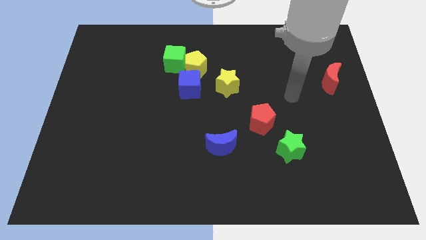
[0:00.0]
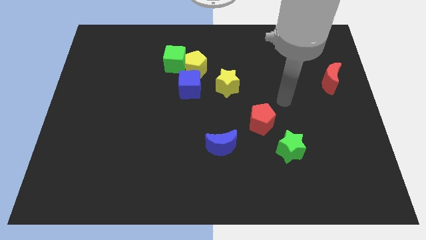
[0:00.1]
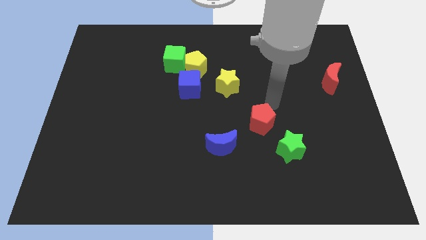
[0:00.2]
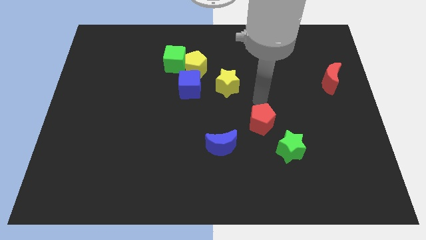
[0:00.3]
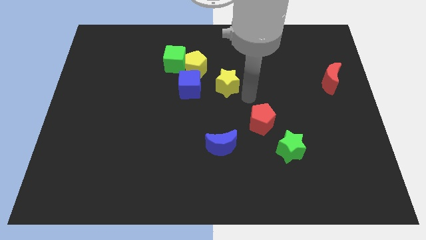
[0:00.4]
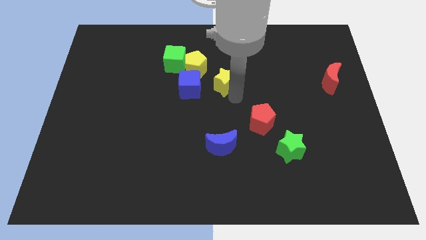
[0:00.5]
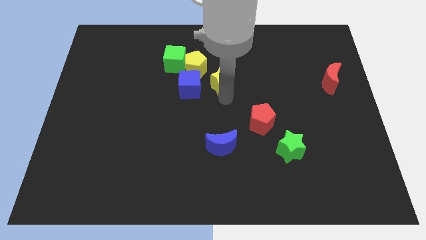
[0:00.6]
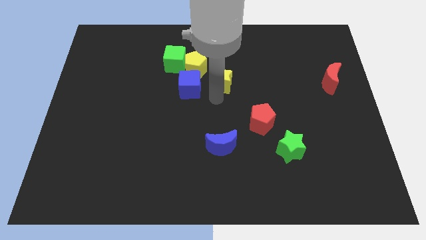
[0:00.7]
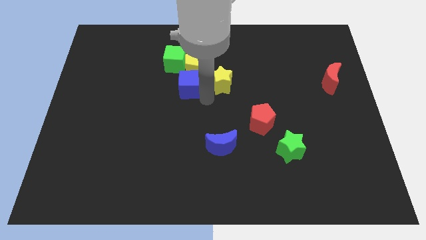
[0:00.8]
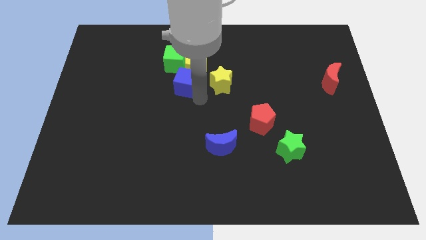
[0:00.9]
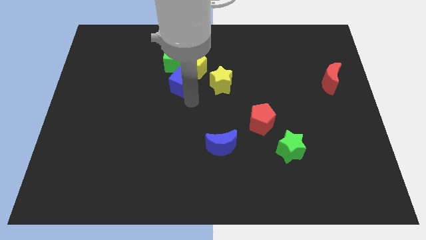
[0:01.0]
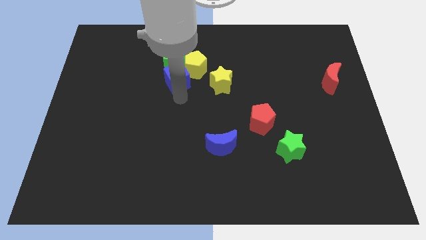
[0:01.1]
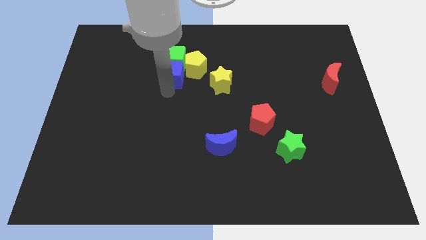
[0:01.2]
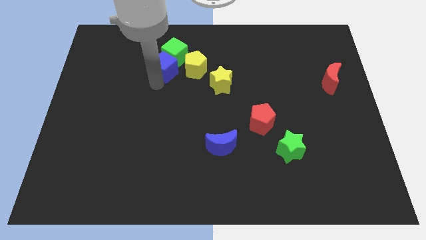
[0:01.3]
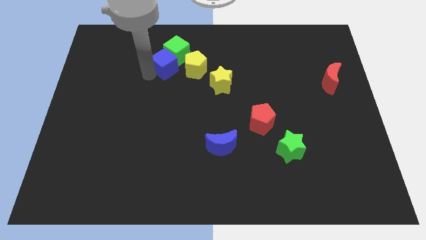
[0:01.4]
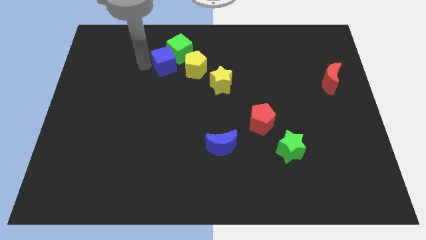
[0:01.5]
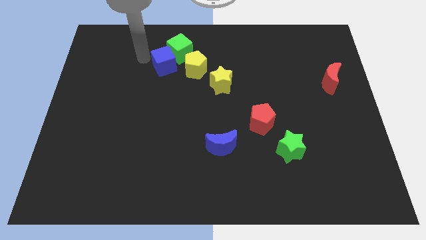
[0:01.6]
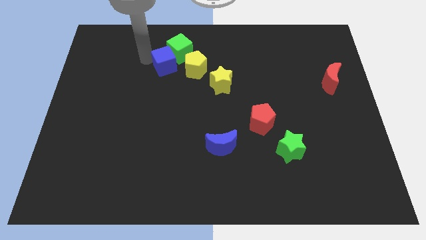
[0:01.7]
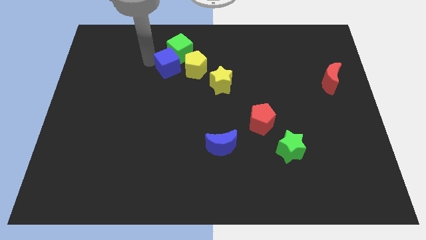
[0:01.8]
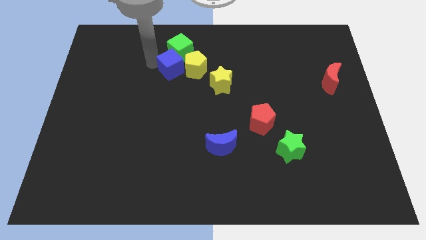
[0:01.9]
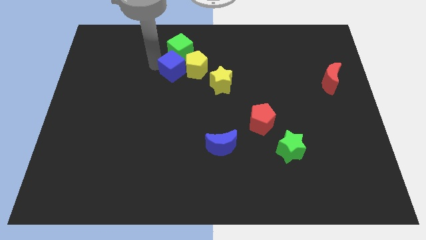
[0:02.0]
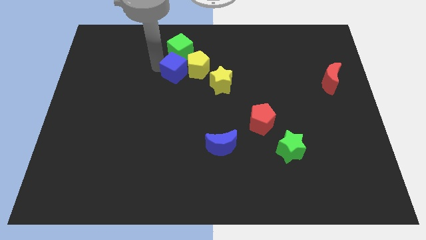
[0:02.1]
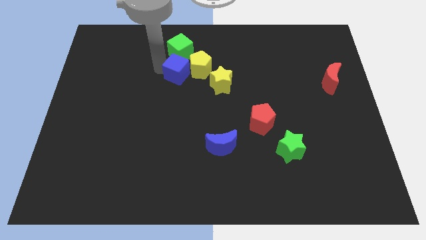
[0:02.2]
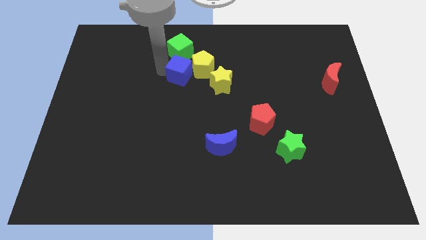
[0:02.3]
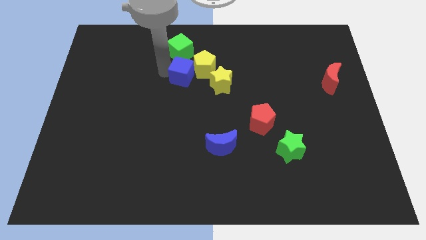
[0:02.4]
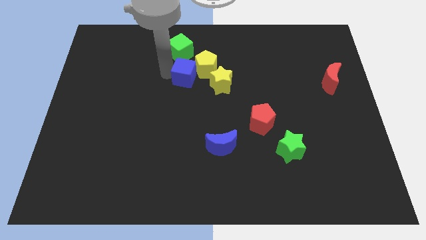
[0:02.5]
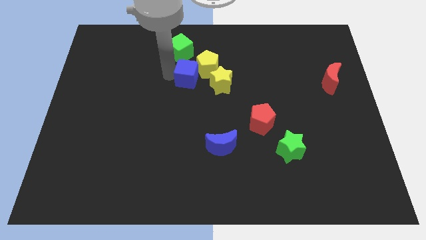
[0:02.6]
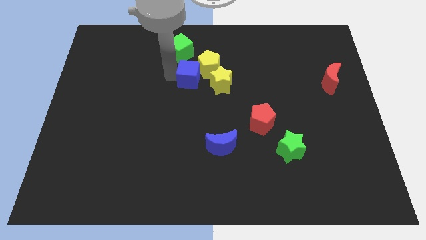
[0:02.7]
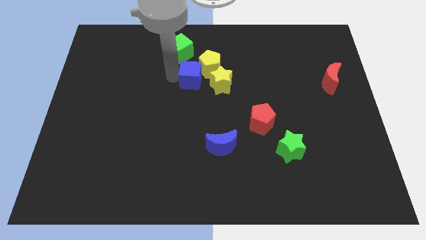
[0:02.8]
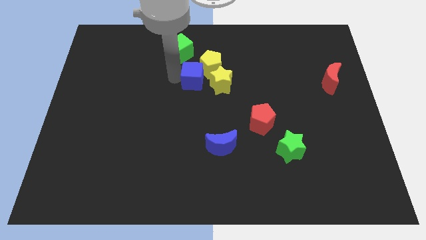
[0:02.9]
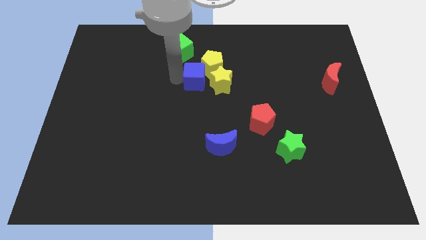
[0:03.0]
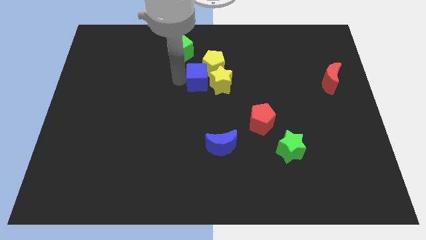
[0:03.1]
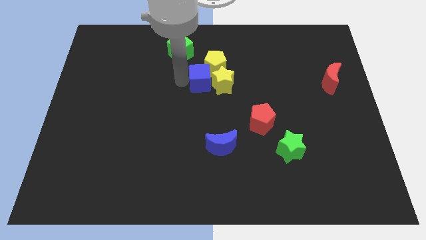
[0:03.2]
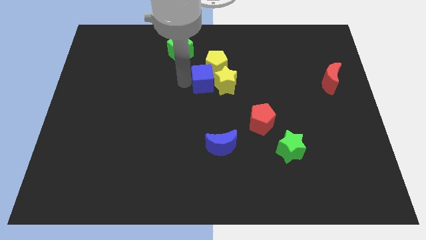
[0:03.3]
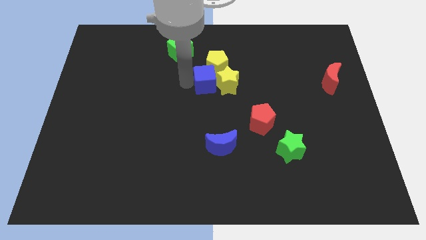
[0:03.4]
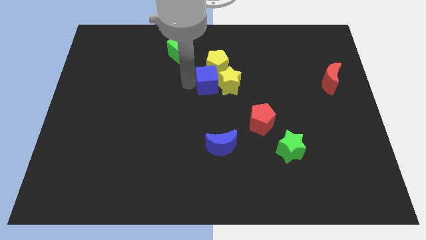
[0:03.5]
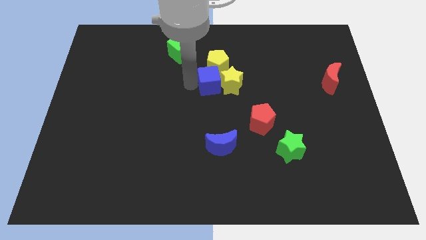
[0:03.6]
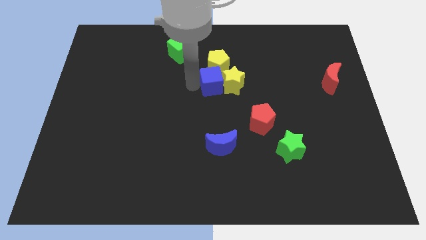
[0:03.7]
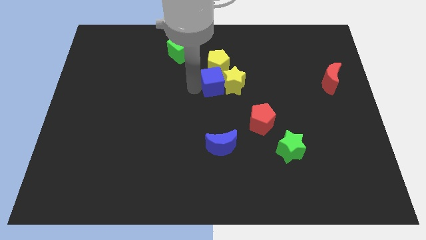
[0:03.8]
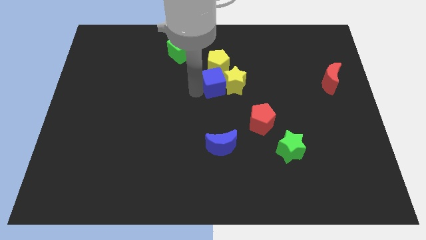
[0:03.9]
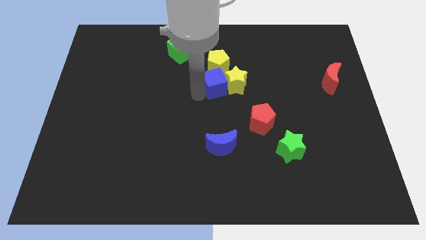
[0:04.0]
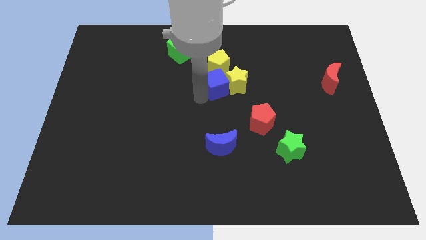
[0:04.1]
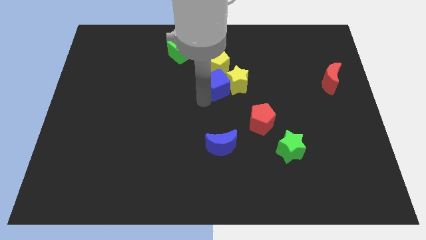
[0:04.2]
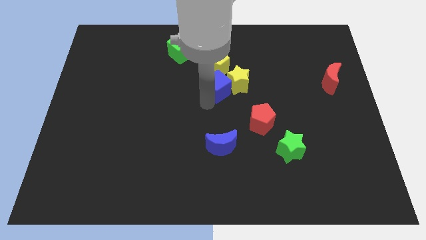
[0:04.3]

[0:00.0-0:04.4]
slightly push the blue cube to the right

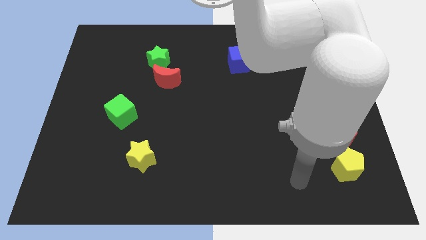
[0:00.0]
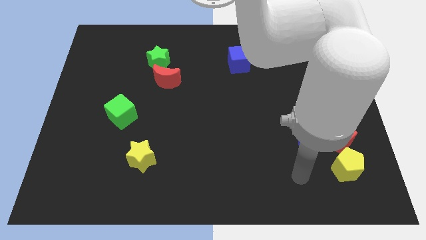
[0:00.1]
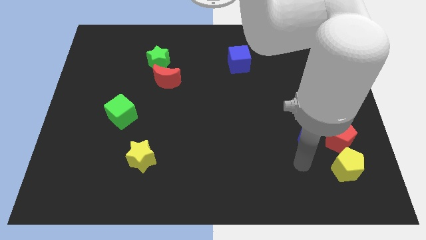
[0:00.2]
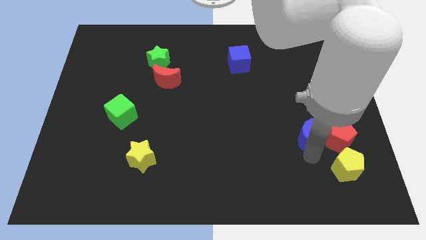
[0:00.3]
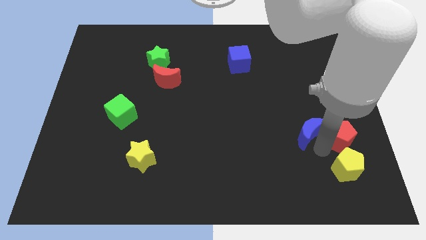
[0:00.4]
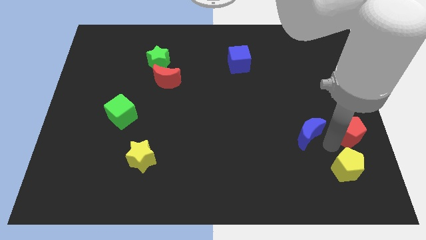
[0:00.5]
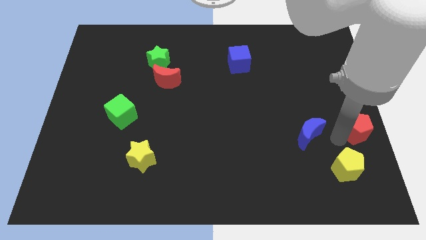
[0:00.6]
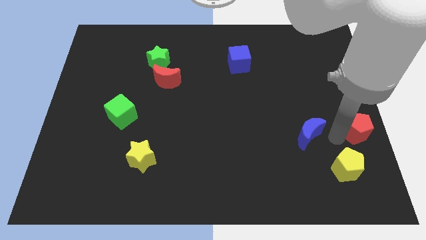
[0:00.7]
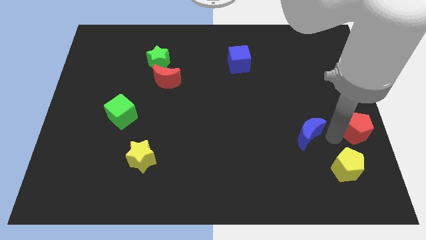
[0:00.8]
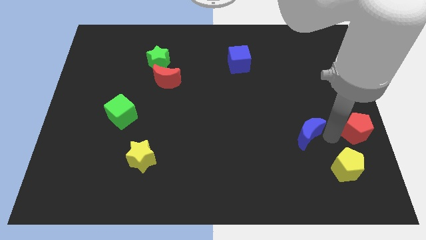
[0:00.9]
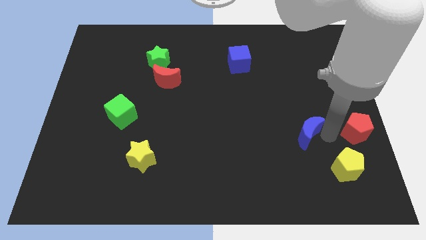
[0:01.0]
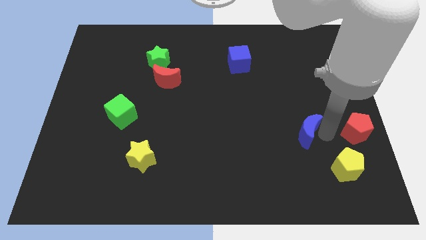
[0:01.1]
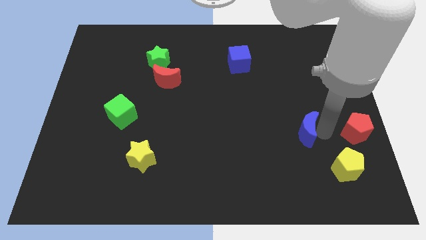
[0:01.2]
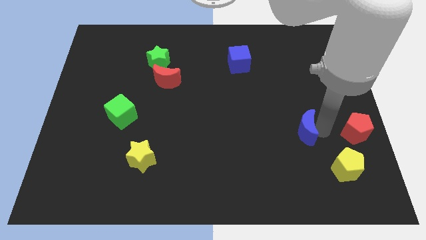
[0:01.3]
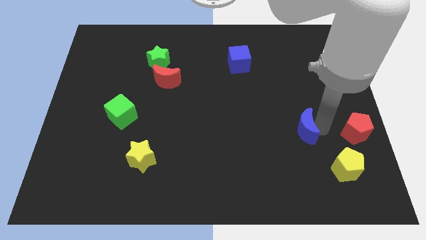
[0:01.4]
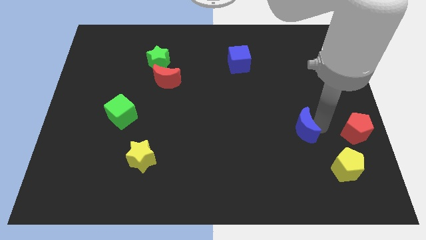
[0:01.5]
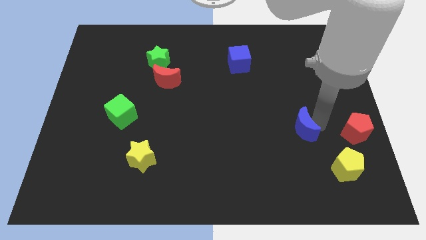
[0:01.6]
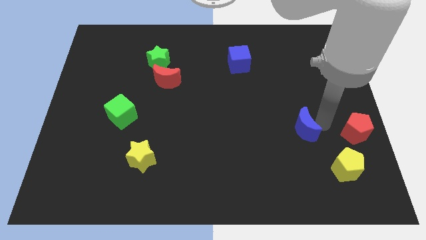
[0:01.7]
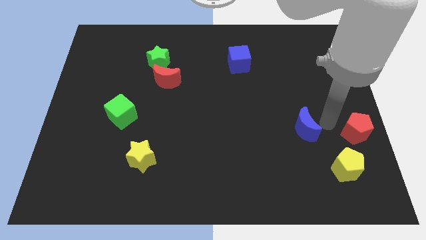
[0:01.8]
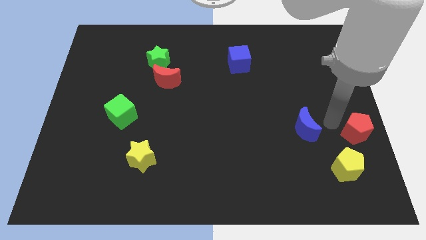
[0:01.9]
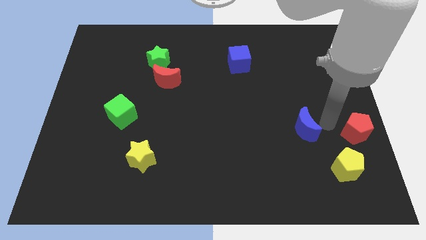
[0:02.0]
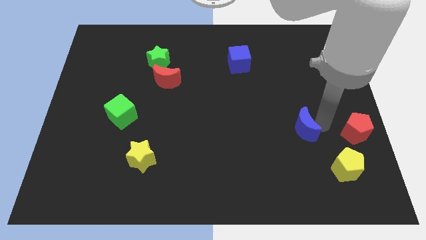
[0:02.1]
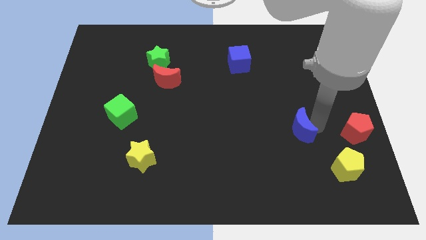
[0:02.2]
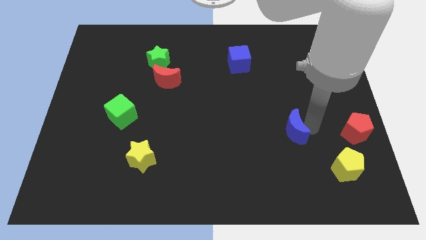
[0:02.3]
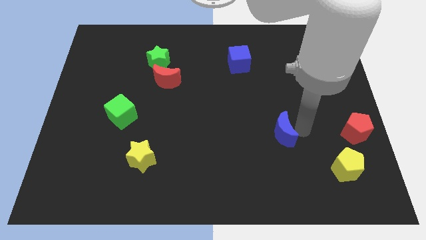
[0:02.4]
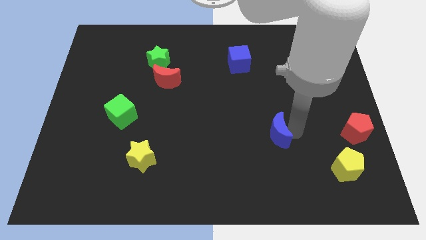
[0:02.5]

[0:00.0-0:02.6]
slightly move the blue moon left

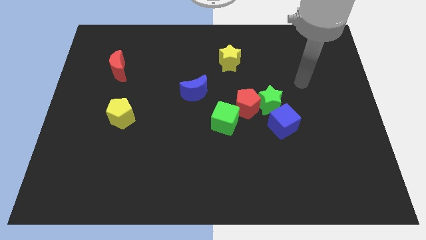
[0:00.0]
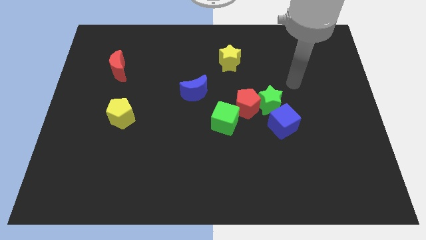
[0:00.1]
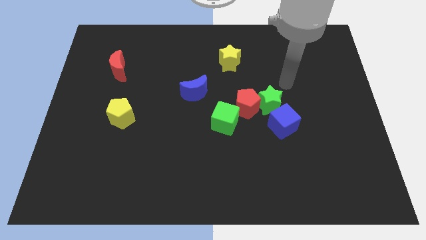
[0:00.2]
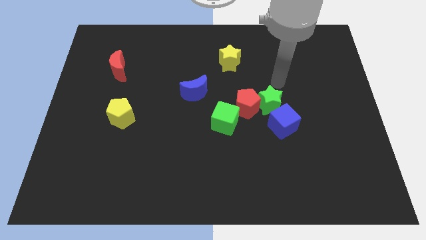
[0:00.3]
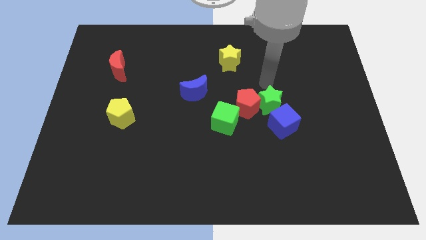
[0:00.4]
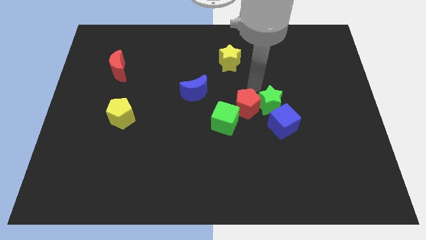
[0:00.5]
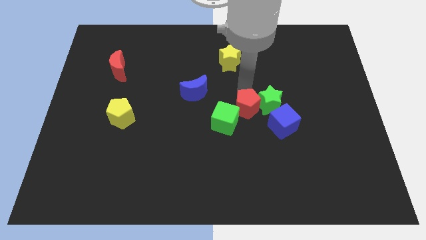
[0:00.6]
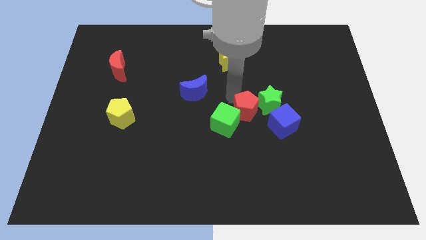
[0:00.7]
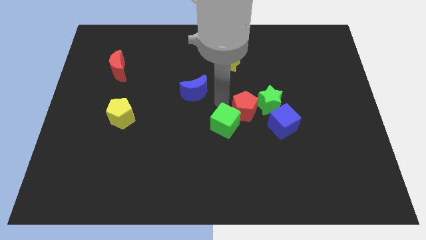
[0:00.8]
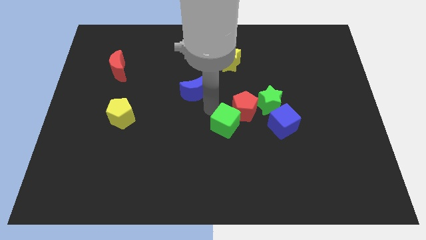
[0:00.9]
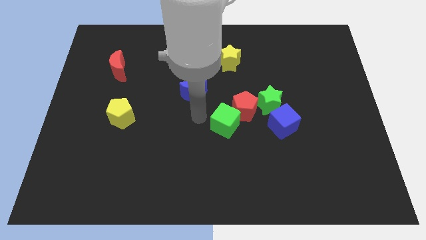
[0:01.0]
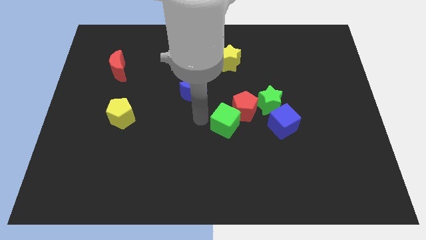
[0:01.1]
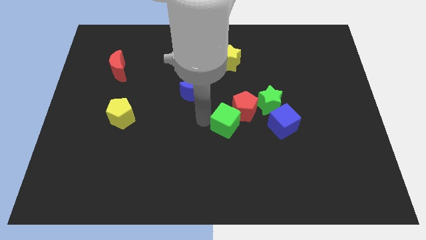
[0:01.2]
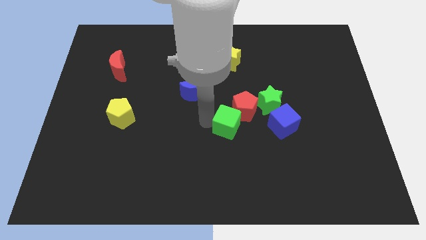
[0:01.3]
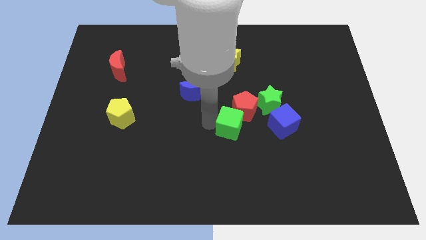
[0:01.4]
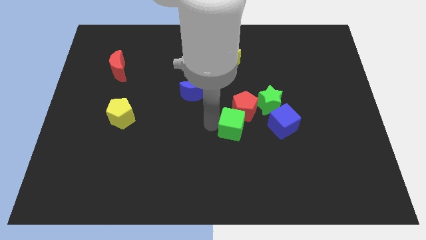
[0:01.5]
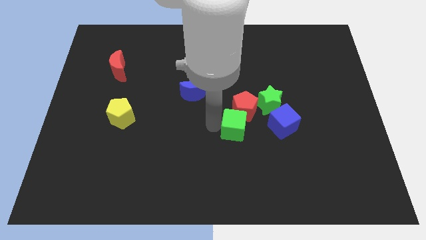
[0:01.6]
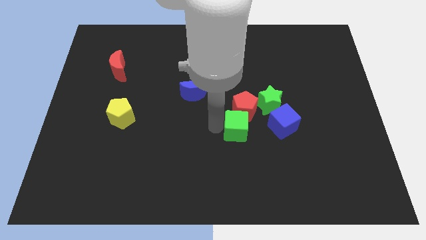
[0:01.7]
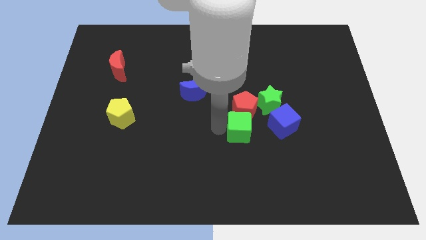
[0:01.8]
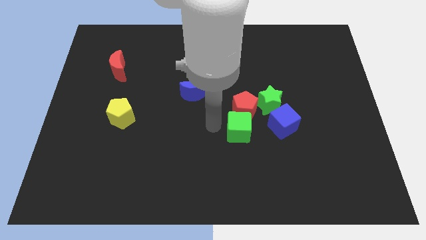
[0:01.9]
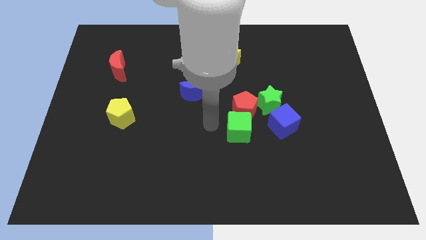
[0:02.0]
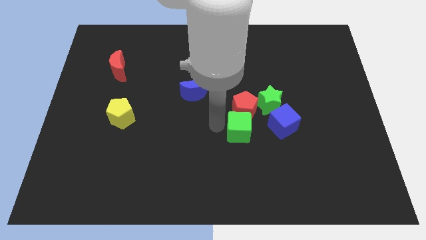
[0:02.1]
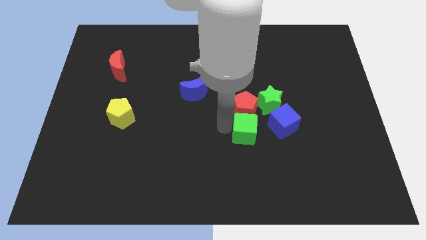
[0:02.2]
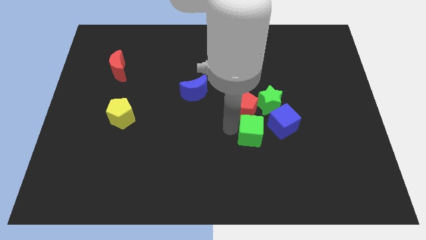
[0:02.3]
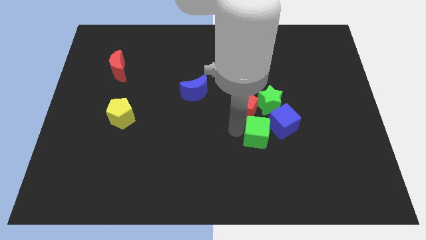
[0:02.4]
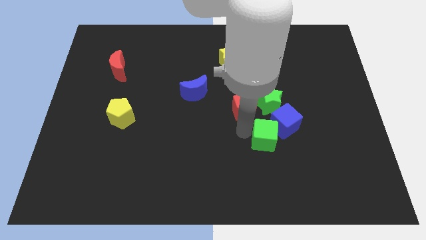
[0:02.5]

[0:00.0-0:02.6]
slightly move the green cube right
